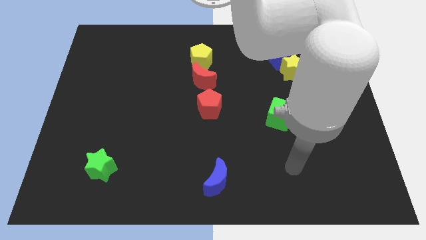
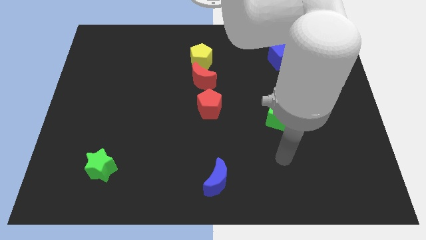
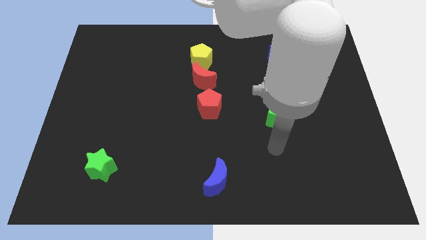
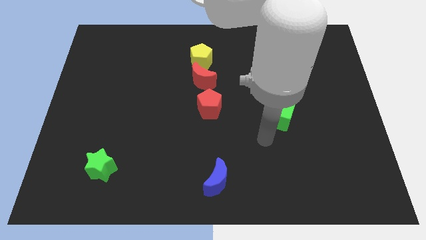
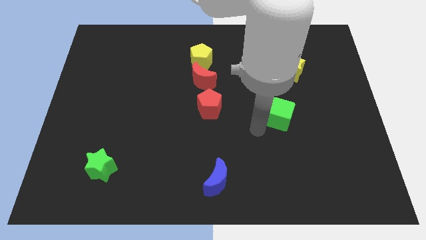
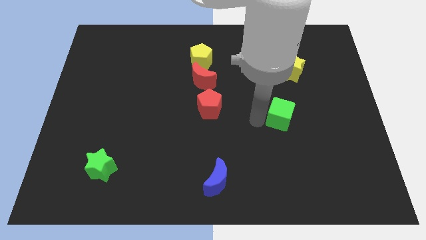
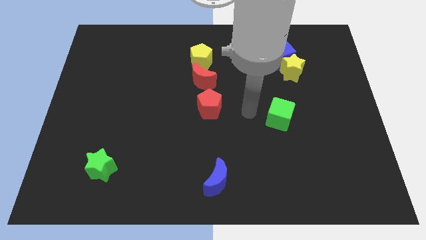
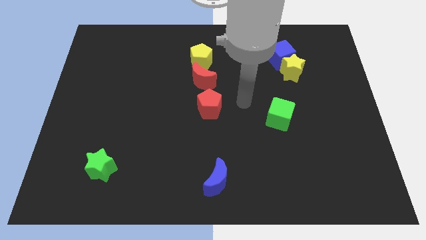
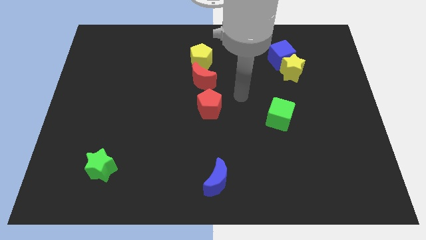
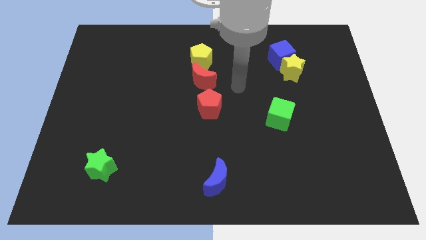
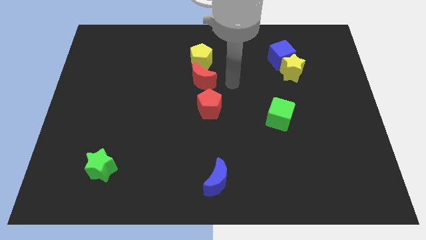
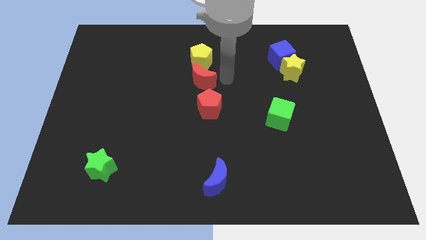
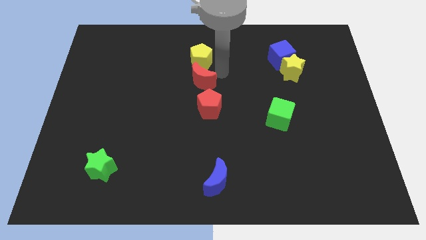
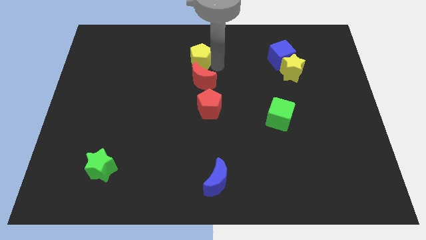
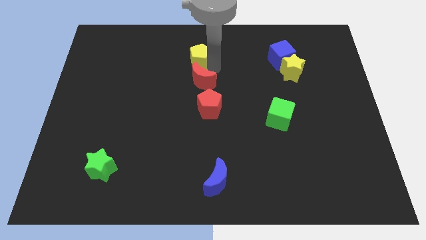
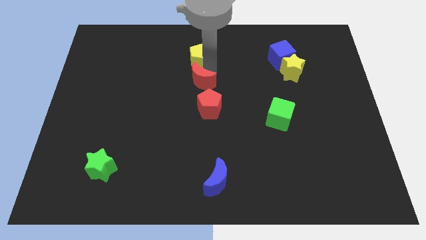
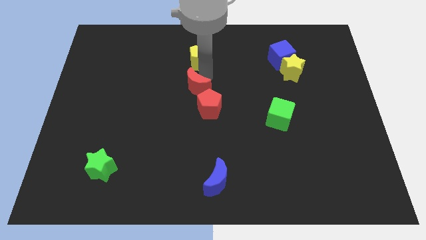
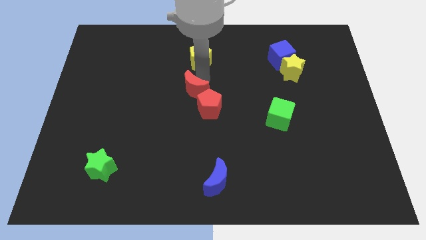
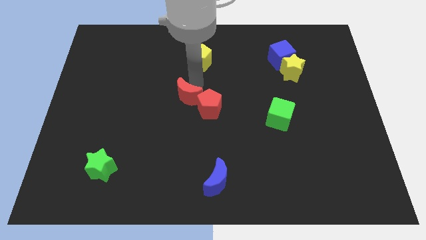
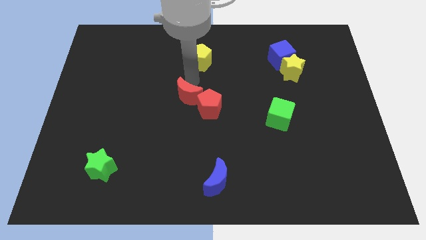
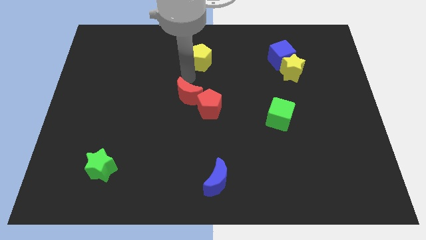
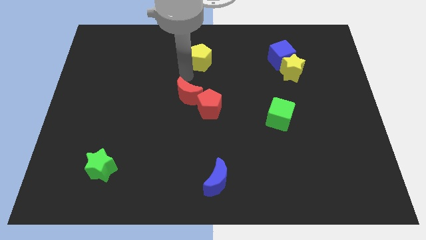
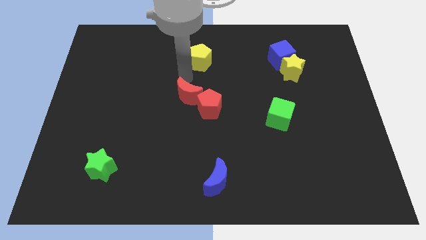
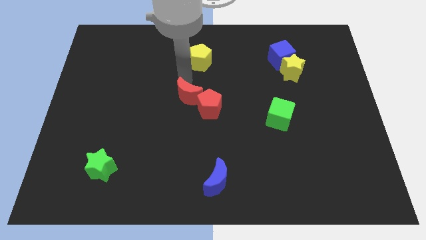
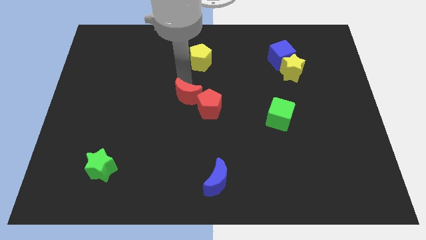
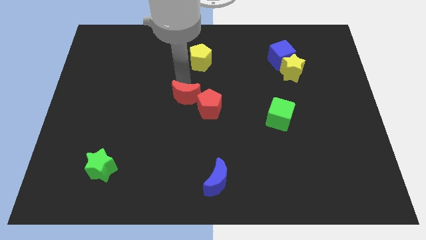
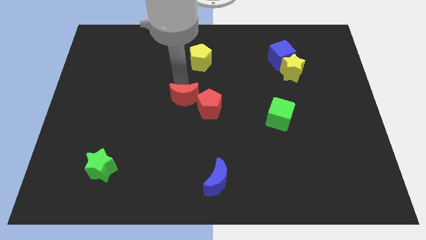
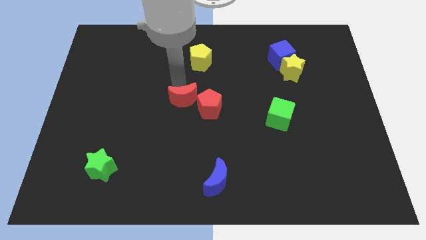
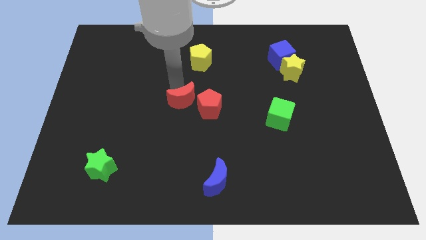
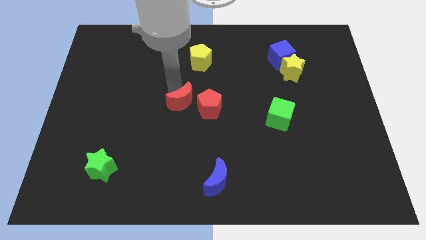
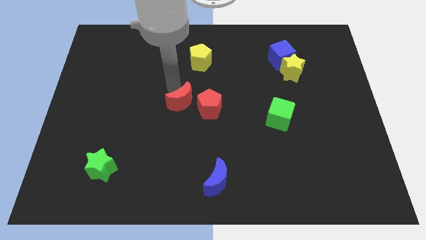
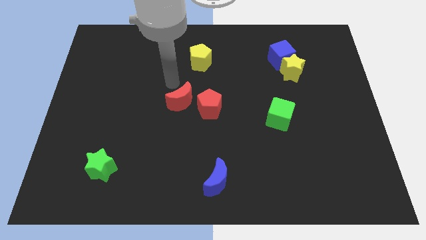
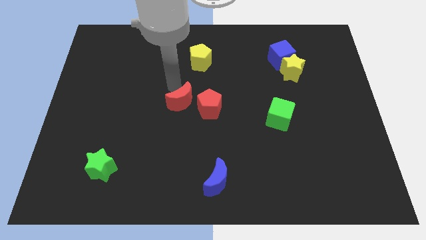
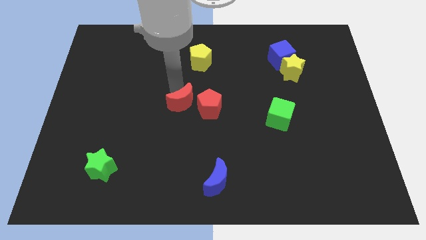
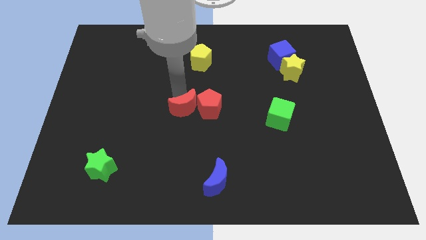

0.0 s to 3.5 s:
slightly move the red moon downwards

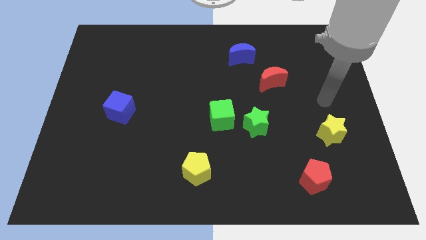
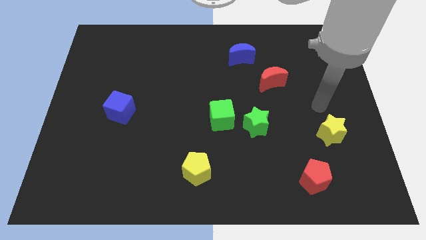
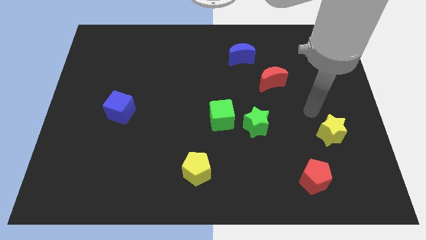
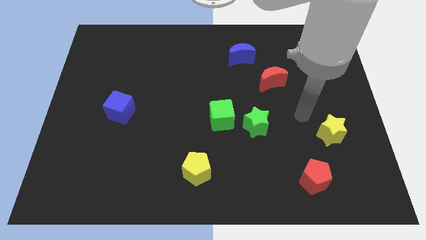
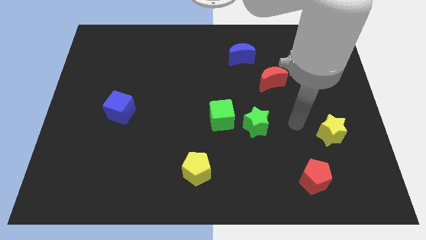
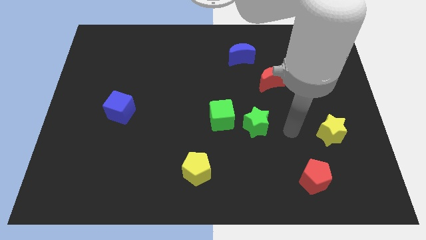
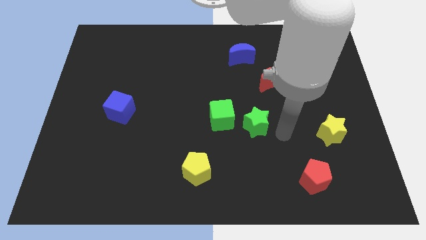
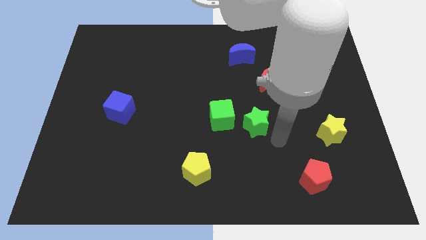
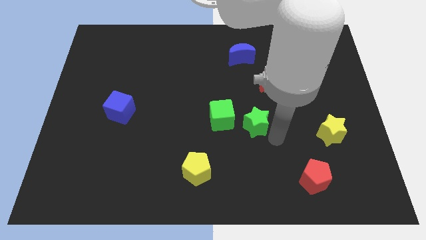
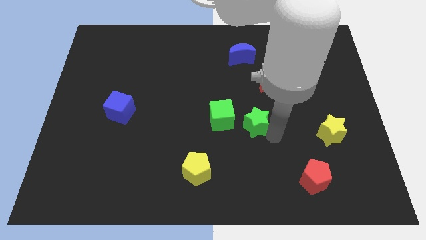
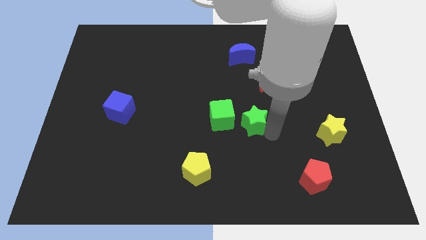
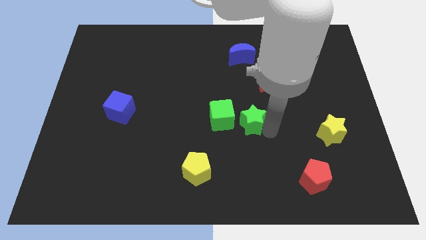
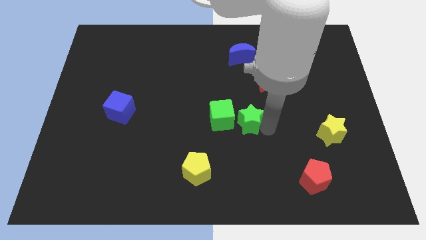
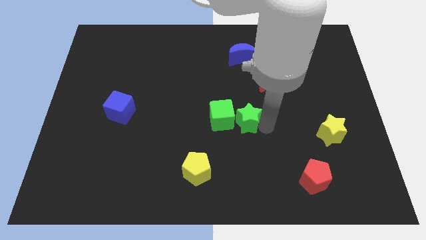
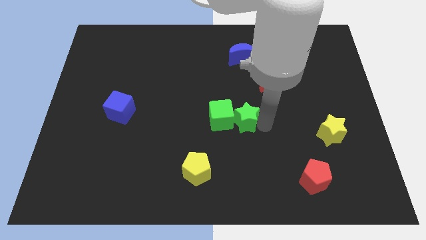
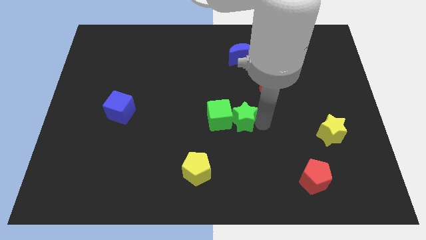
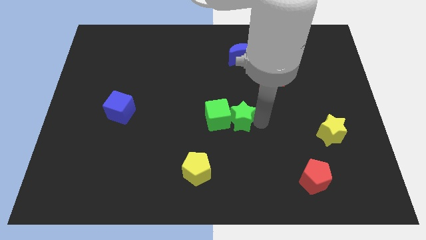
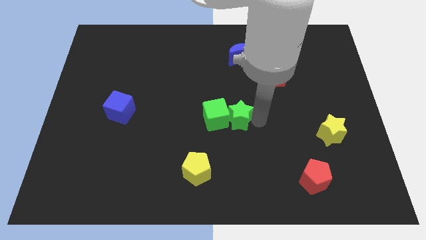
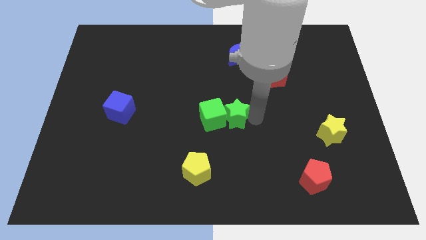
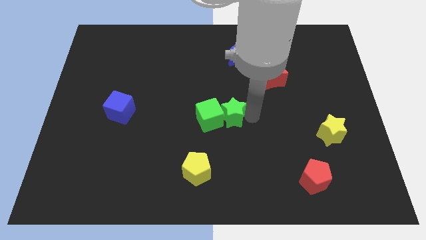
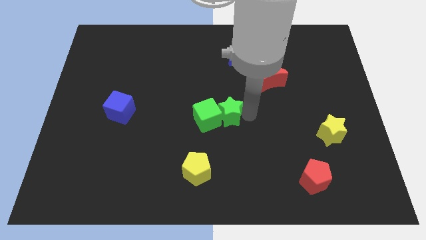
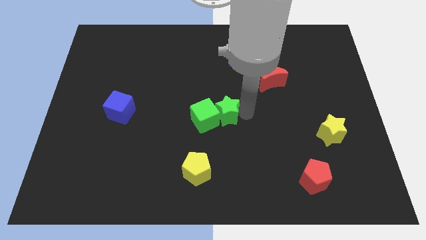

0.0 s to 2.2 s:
move the green star upwards and left somewhat

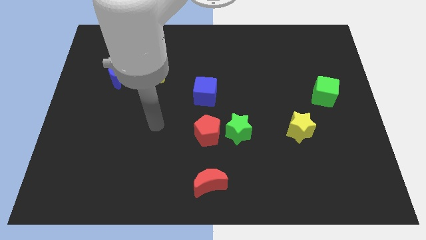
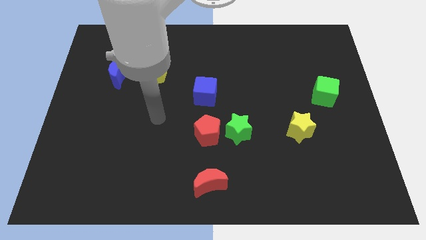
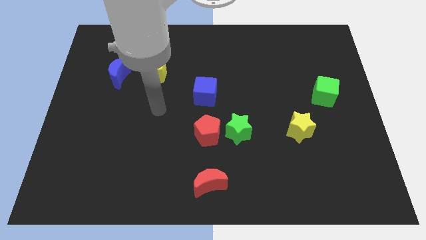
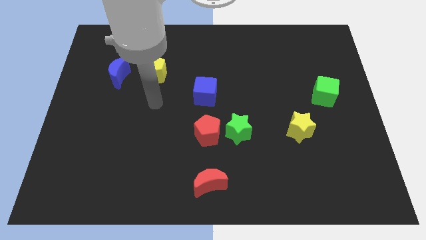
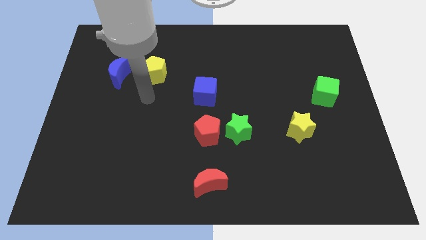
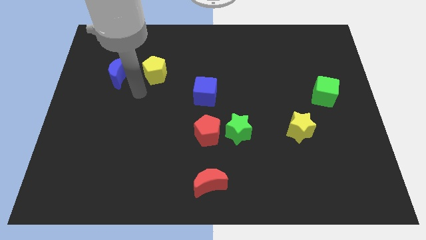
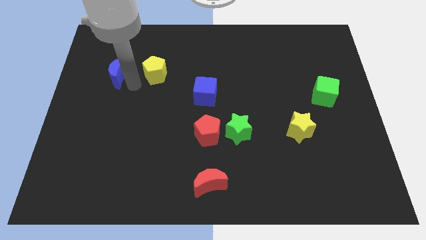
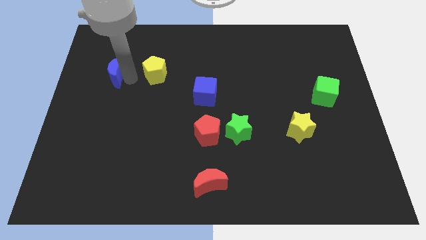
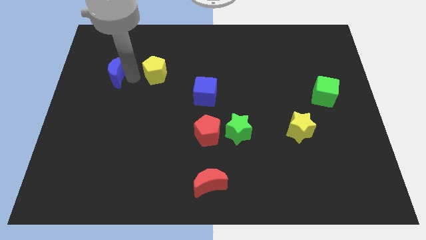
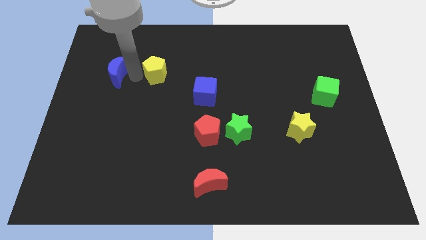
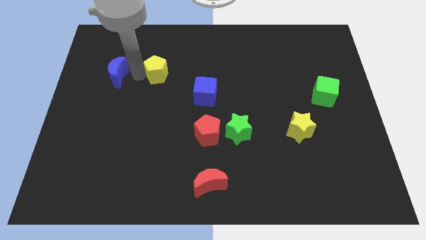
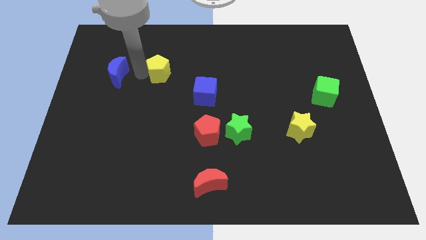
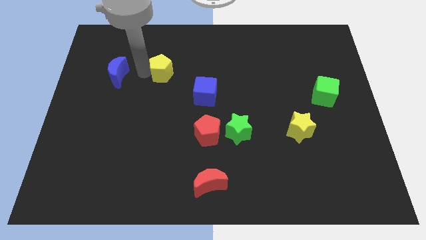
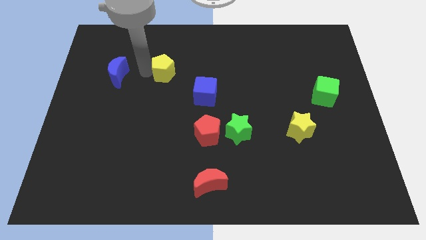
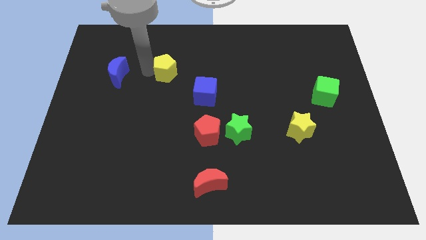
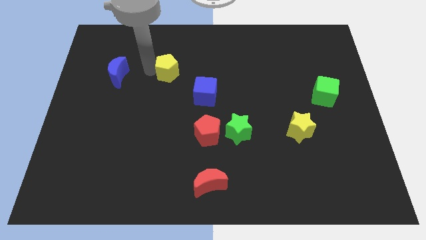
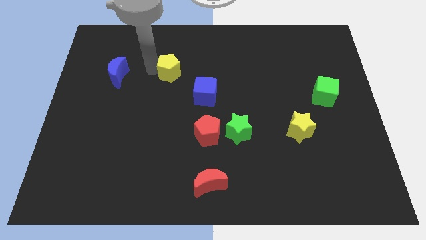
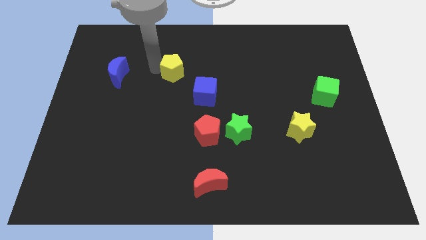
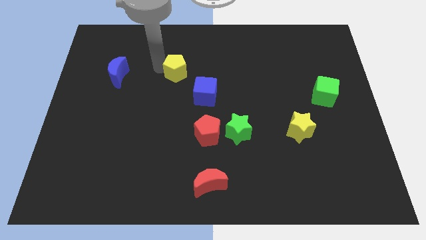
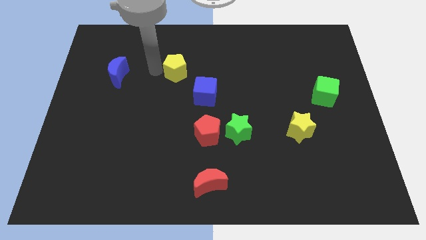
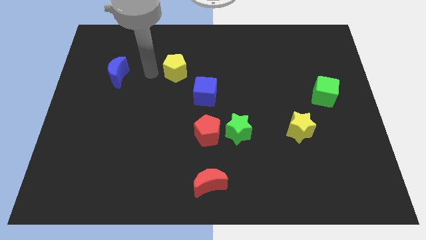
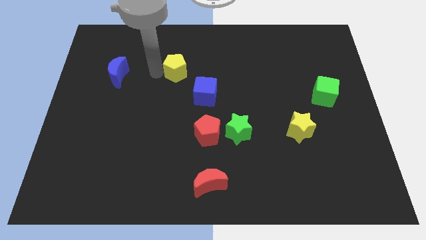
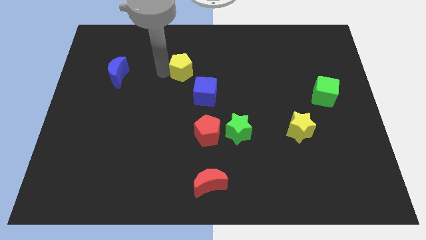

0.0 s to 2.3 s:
push the yellow pentagon a bit to the right
